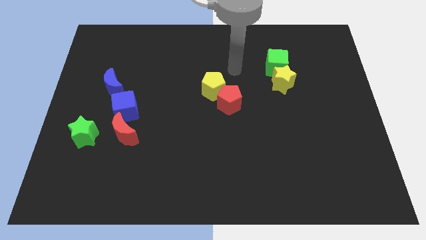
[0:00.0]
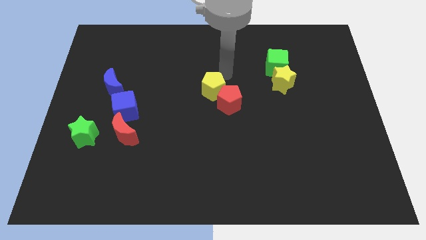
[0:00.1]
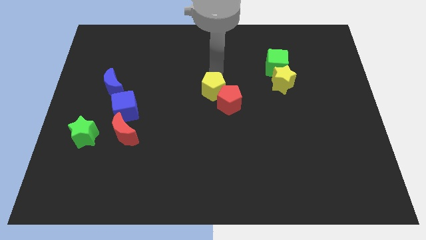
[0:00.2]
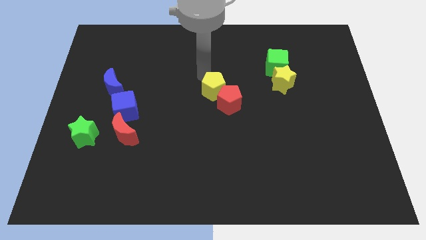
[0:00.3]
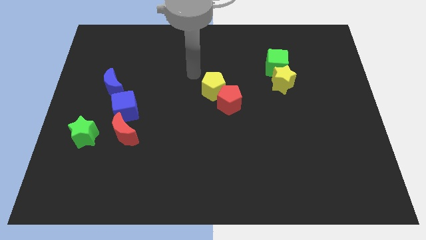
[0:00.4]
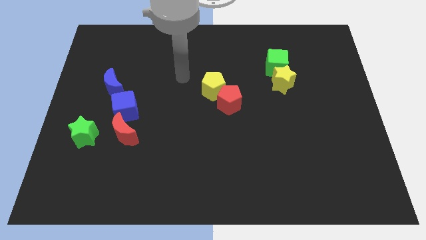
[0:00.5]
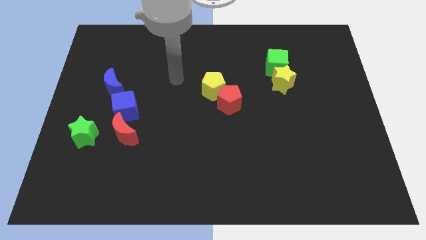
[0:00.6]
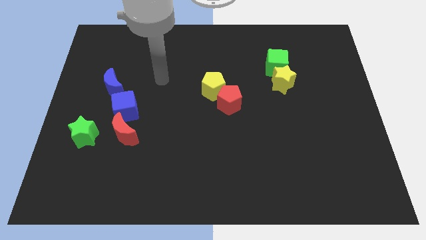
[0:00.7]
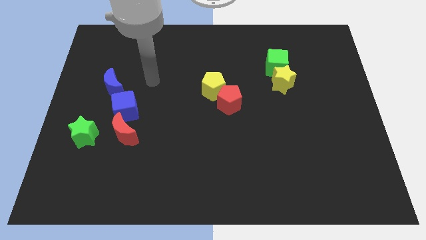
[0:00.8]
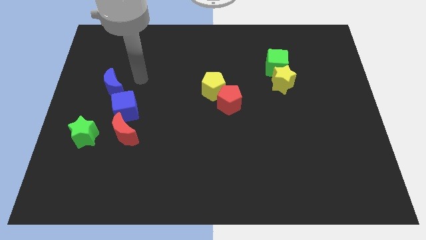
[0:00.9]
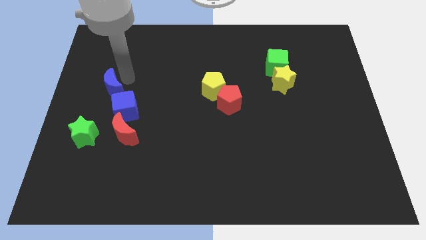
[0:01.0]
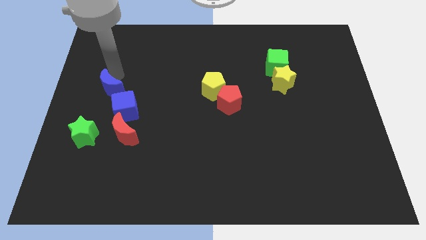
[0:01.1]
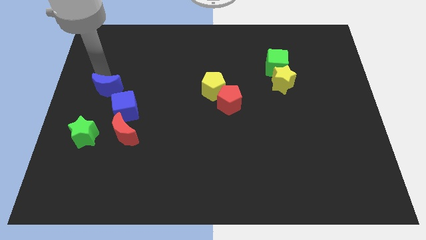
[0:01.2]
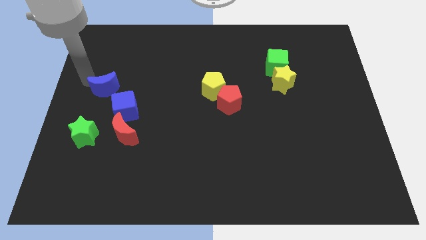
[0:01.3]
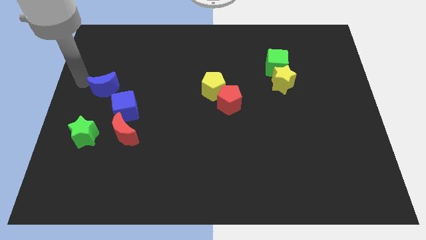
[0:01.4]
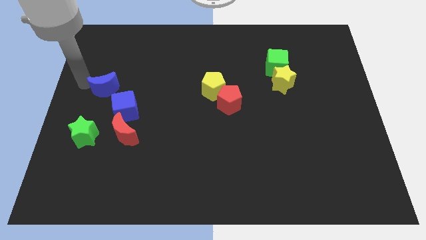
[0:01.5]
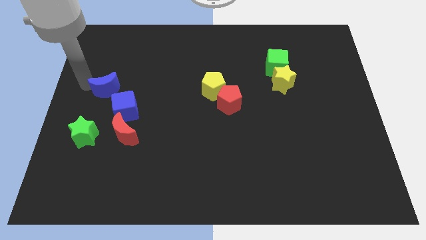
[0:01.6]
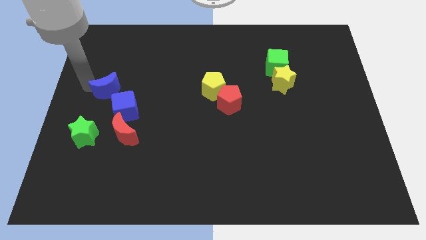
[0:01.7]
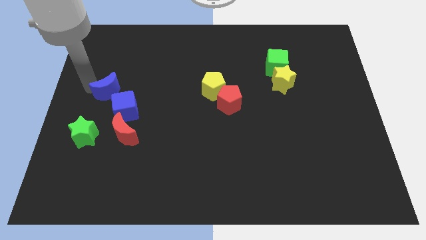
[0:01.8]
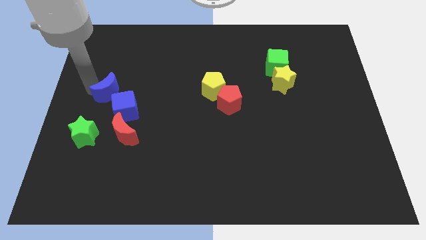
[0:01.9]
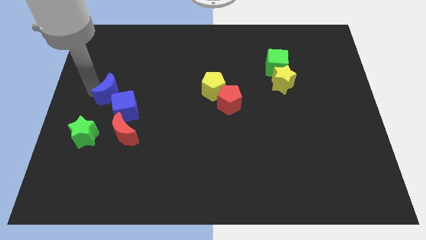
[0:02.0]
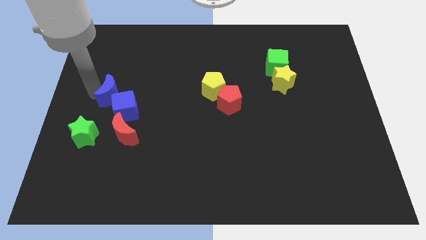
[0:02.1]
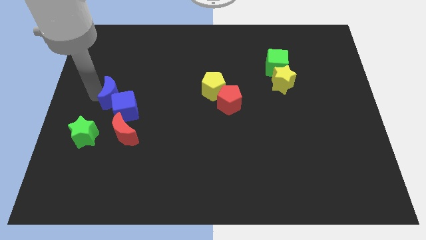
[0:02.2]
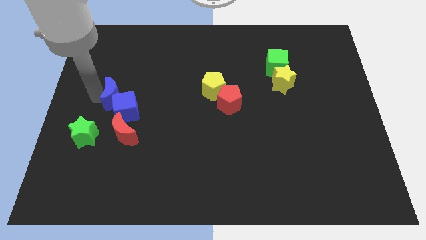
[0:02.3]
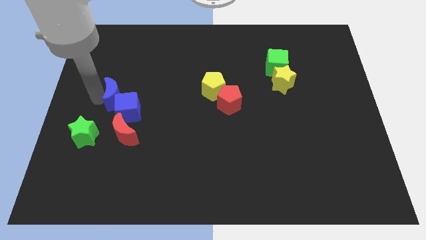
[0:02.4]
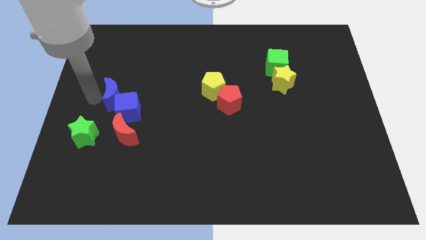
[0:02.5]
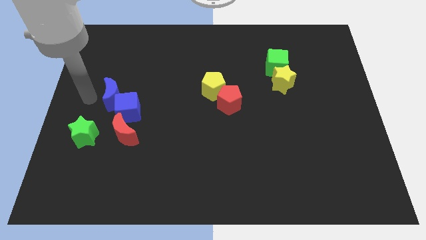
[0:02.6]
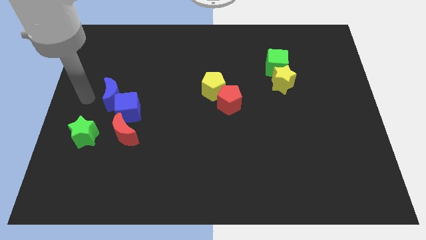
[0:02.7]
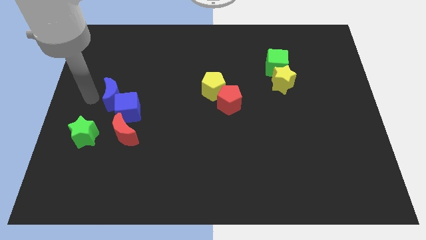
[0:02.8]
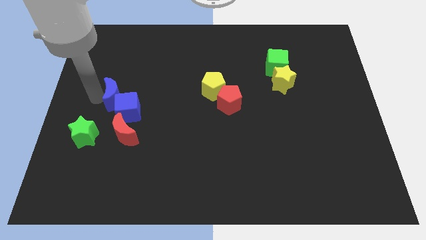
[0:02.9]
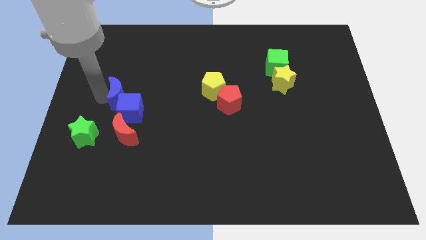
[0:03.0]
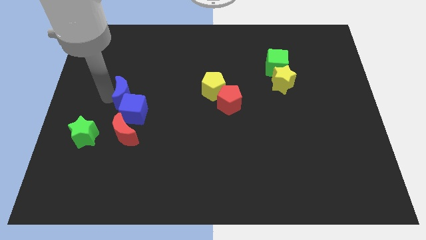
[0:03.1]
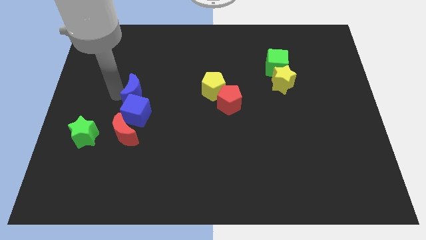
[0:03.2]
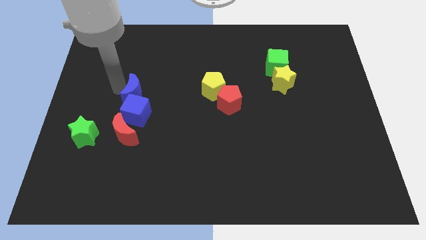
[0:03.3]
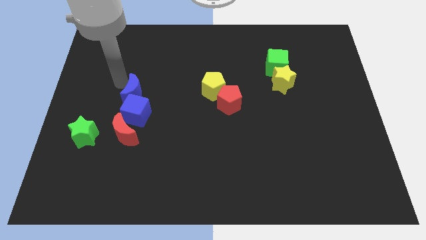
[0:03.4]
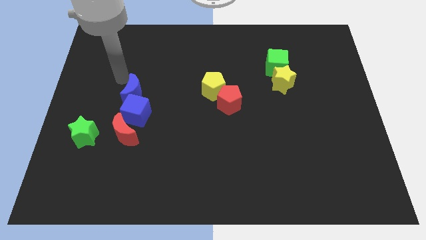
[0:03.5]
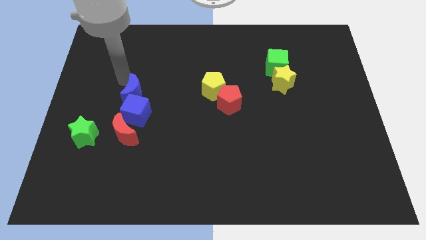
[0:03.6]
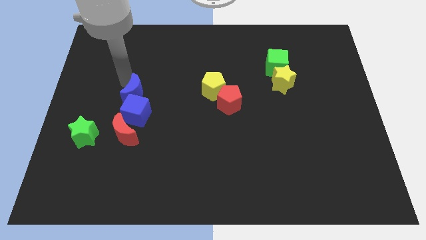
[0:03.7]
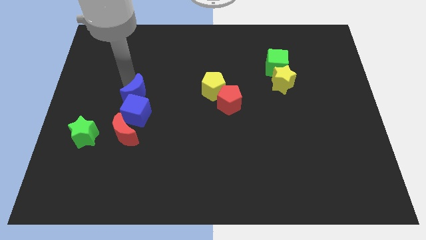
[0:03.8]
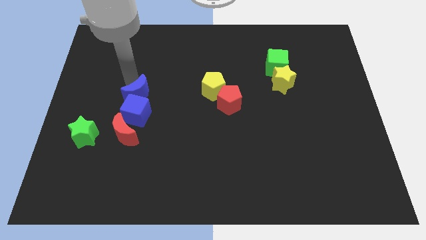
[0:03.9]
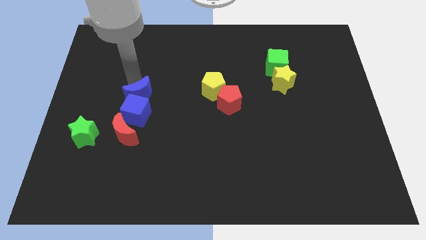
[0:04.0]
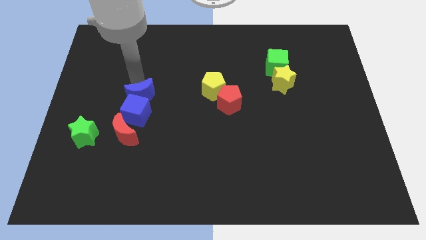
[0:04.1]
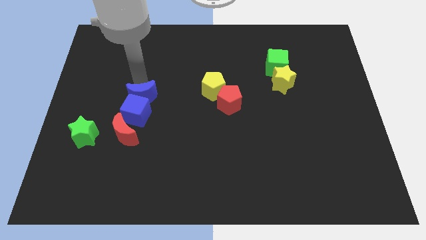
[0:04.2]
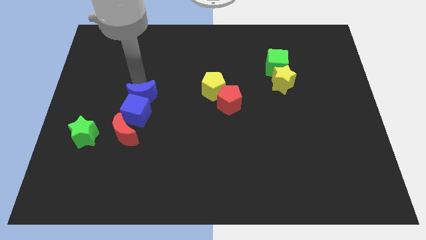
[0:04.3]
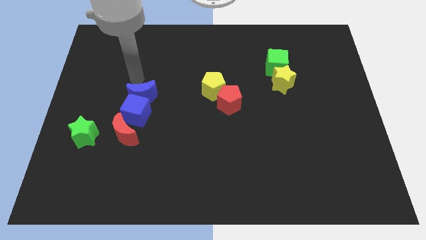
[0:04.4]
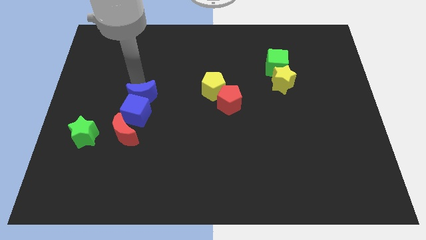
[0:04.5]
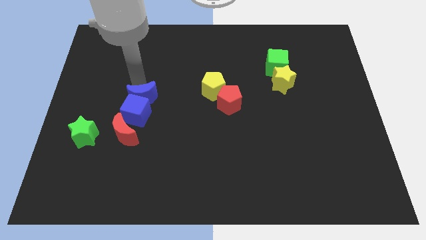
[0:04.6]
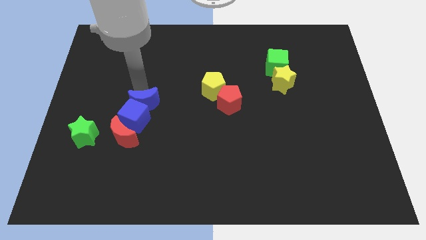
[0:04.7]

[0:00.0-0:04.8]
slide the blue moon to the top right of the red moon

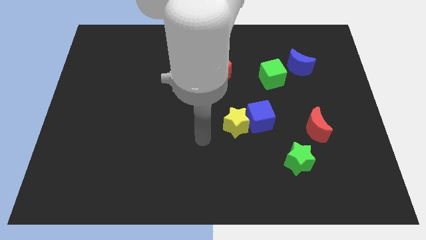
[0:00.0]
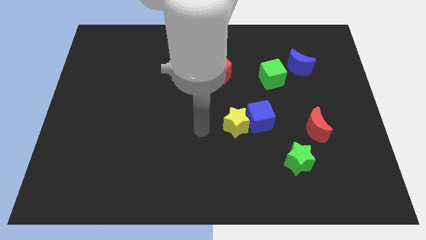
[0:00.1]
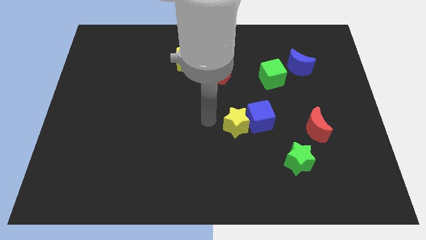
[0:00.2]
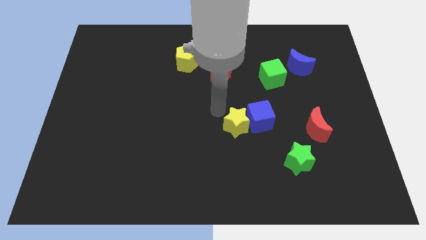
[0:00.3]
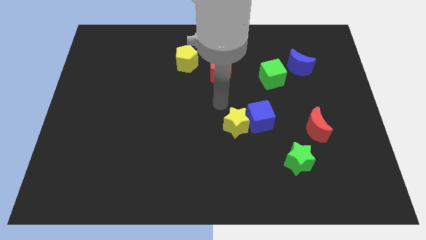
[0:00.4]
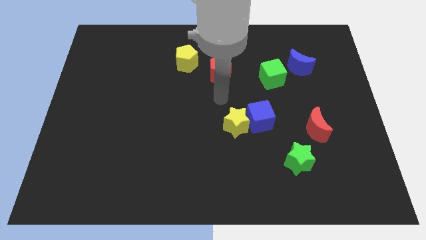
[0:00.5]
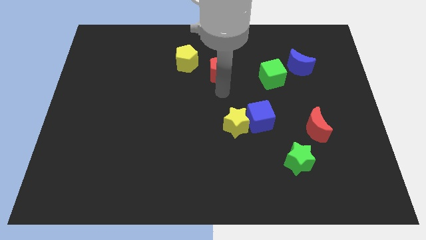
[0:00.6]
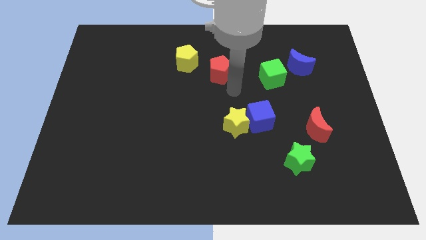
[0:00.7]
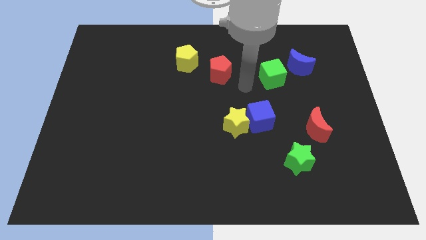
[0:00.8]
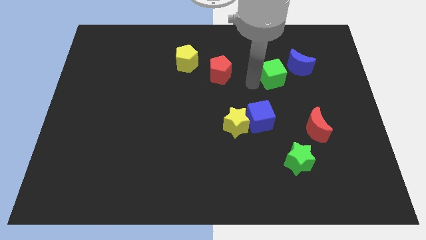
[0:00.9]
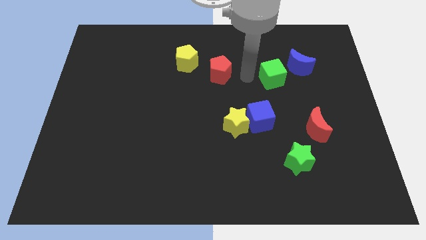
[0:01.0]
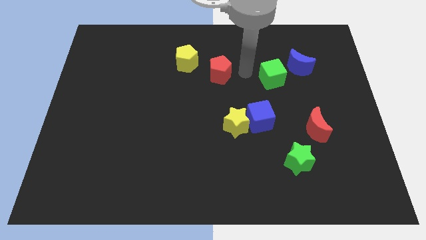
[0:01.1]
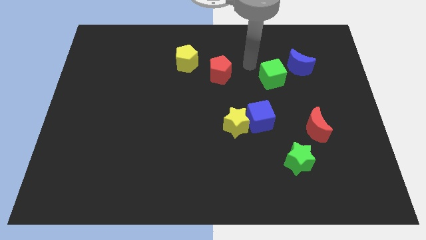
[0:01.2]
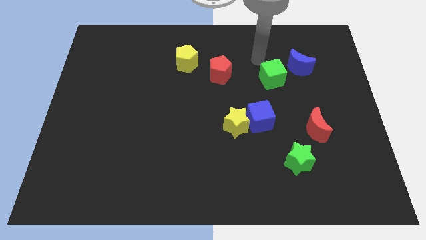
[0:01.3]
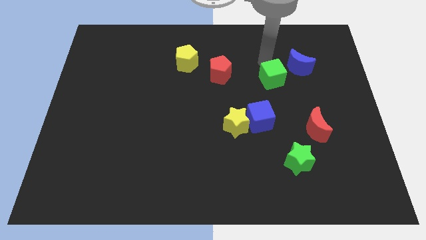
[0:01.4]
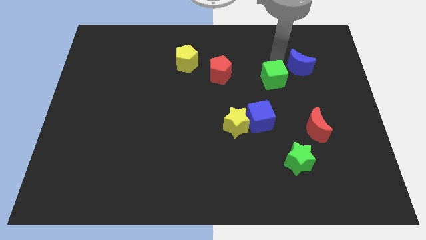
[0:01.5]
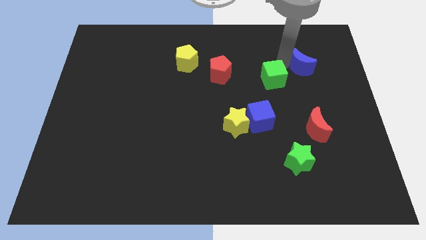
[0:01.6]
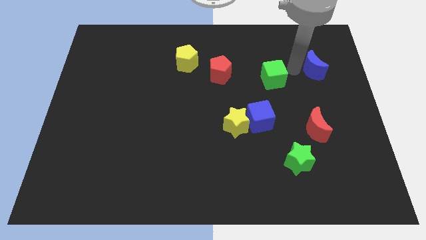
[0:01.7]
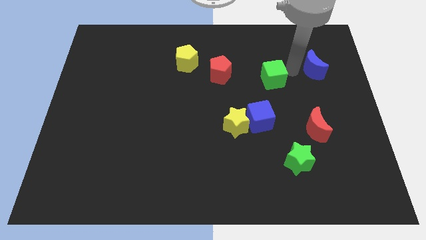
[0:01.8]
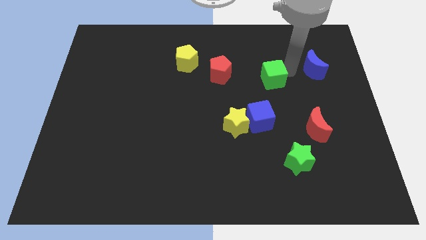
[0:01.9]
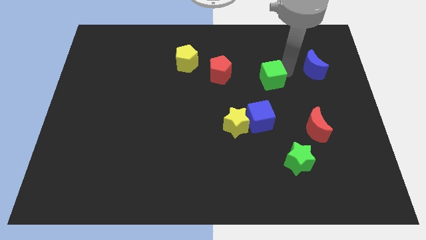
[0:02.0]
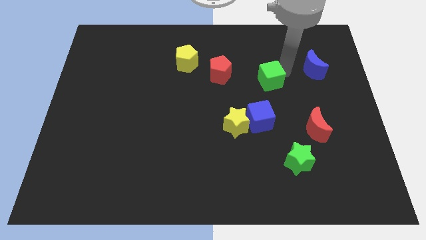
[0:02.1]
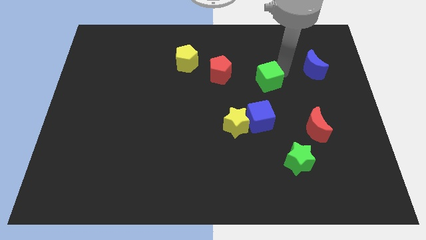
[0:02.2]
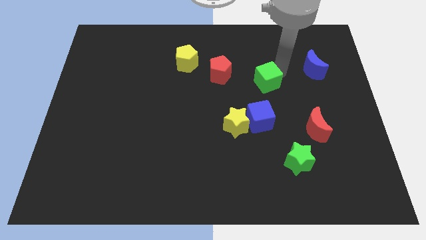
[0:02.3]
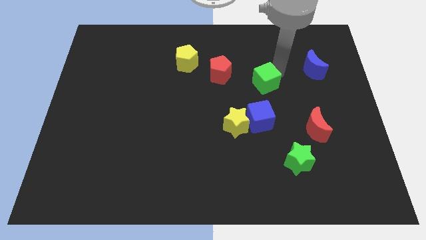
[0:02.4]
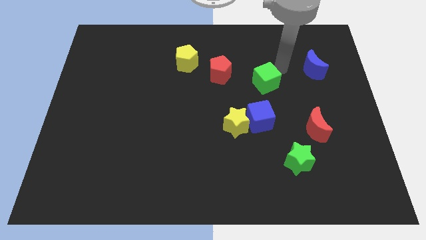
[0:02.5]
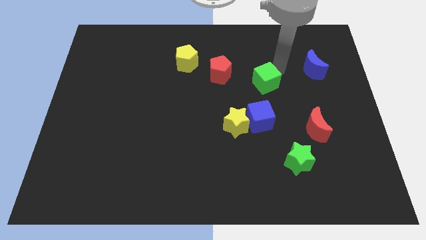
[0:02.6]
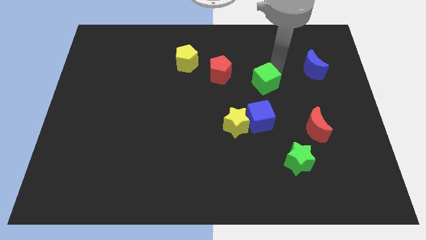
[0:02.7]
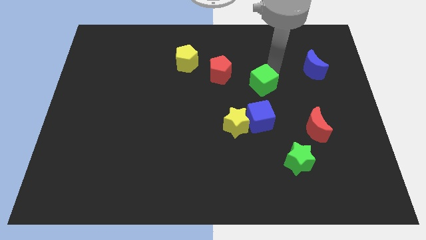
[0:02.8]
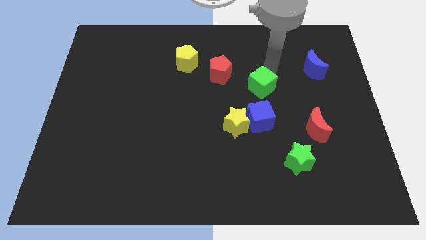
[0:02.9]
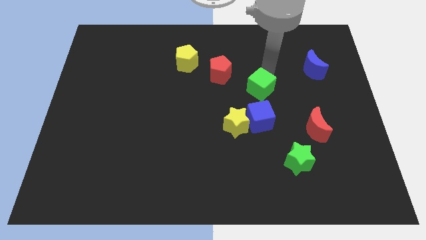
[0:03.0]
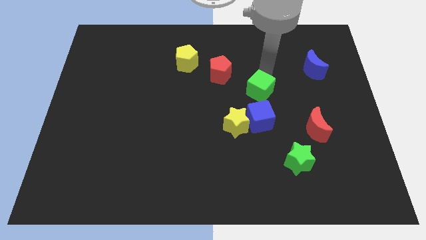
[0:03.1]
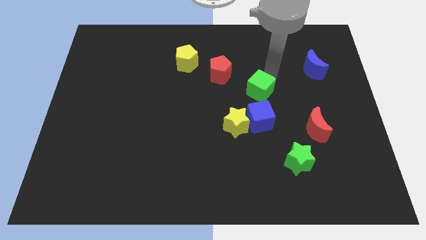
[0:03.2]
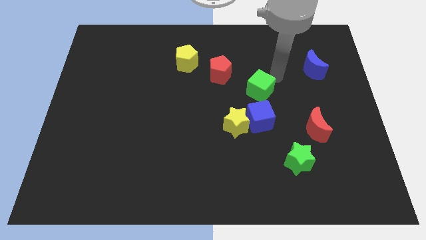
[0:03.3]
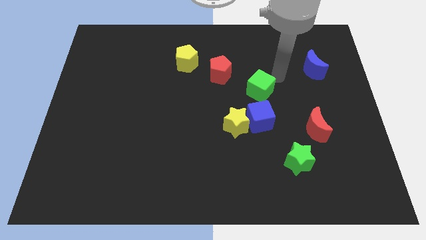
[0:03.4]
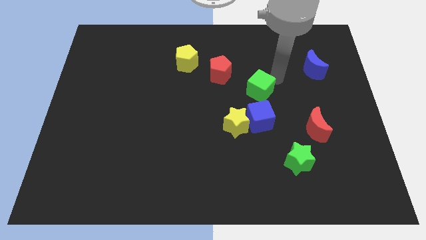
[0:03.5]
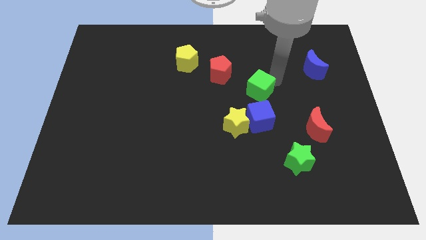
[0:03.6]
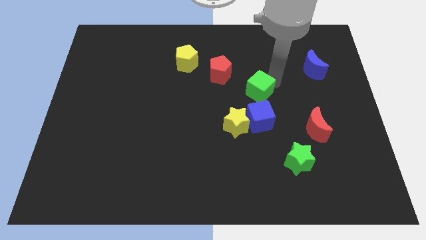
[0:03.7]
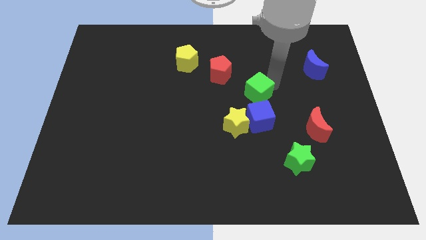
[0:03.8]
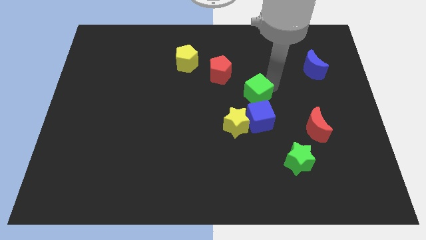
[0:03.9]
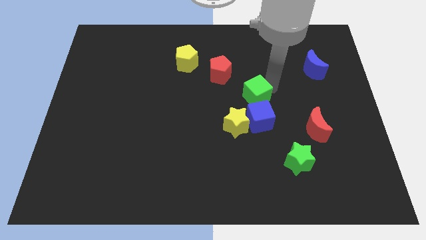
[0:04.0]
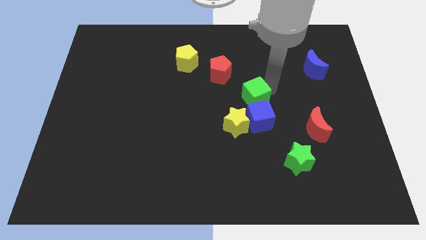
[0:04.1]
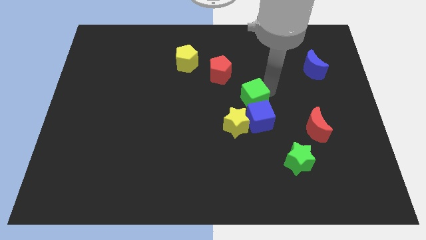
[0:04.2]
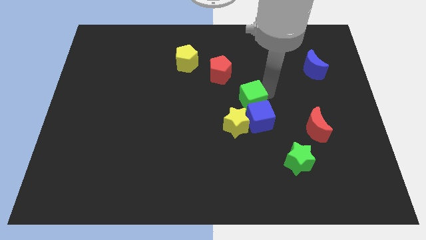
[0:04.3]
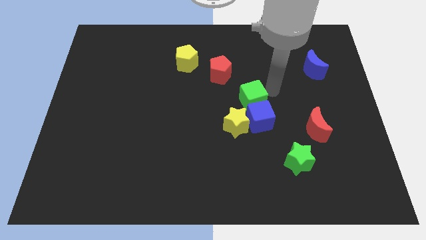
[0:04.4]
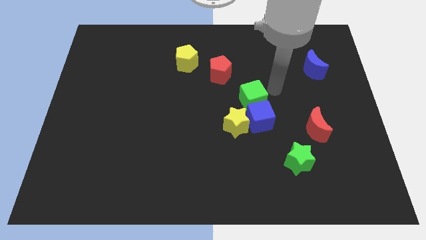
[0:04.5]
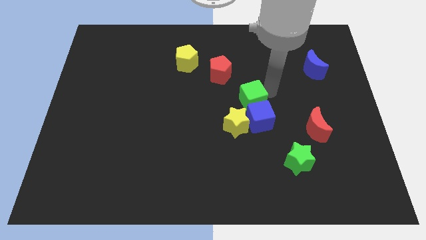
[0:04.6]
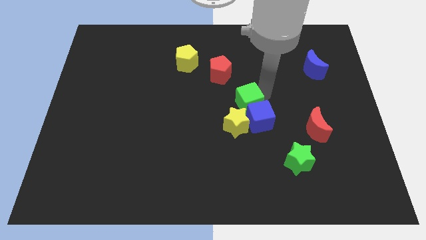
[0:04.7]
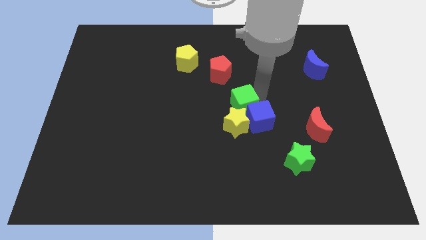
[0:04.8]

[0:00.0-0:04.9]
move the green cube to the left of the blue cube
